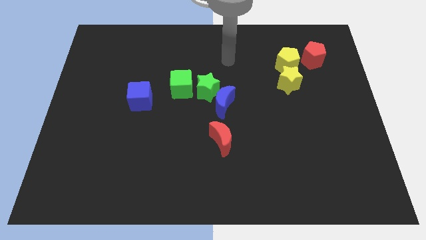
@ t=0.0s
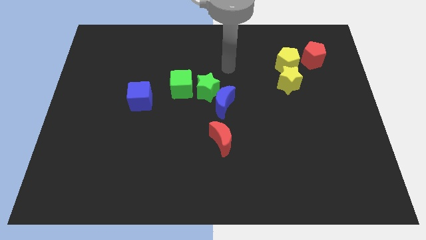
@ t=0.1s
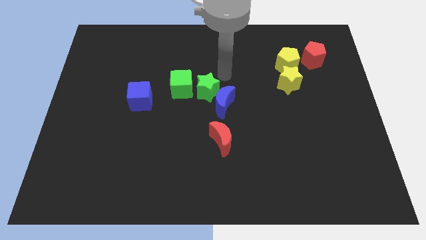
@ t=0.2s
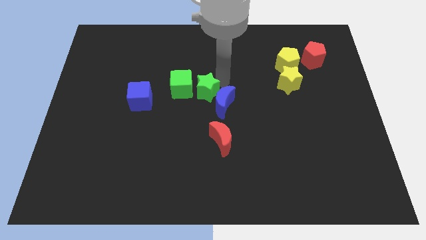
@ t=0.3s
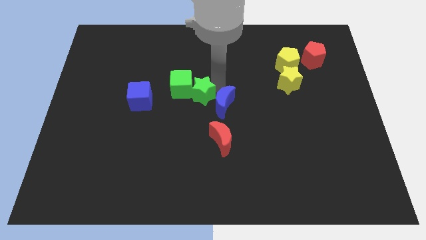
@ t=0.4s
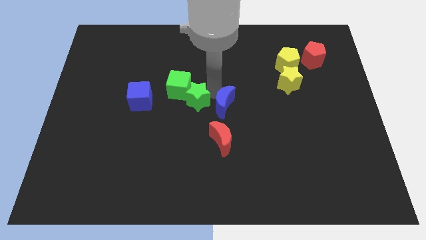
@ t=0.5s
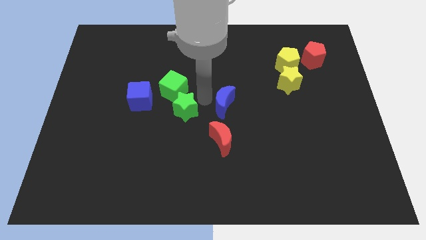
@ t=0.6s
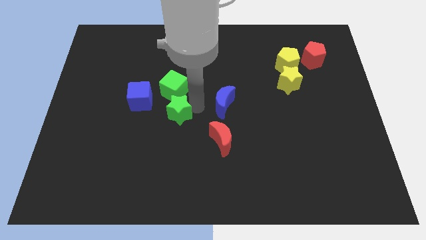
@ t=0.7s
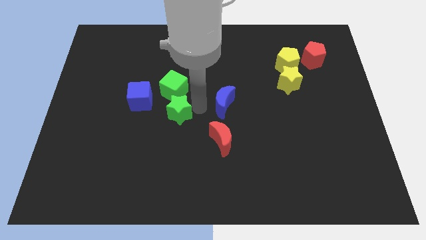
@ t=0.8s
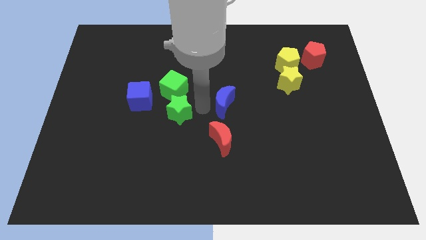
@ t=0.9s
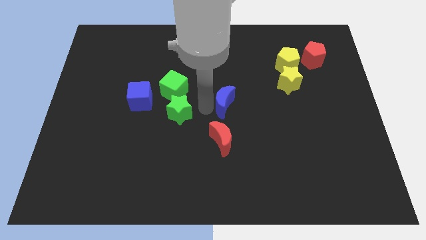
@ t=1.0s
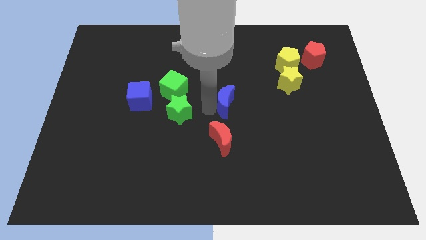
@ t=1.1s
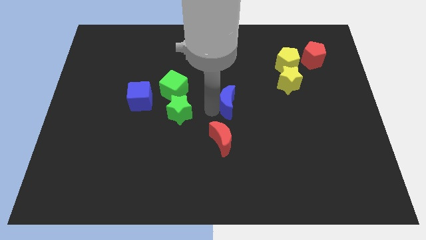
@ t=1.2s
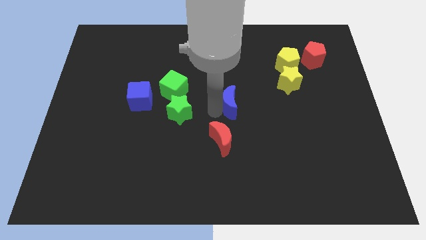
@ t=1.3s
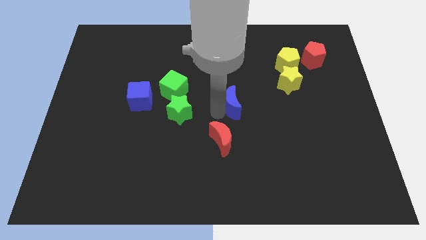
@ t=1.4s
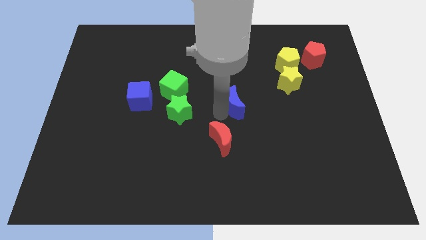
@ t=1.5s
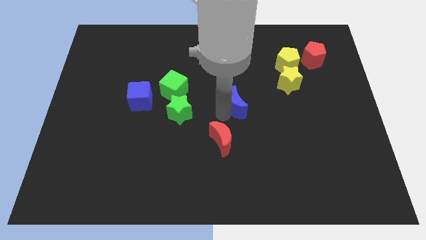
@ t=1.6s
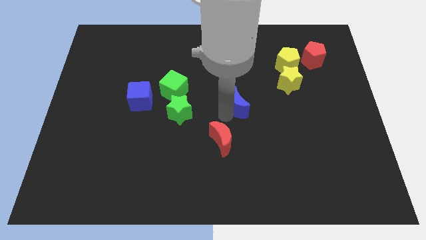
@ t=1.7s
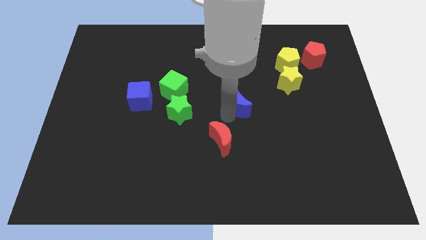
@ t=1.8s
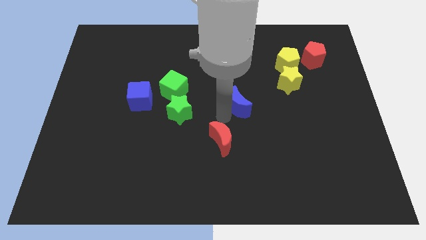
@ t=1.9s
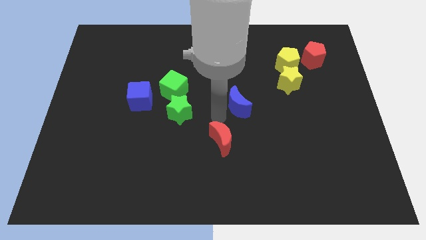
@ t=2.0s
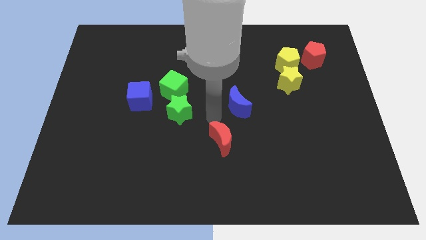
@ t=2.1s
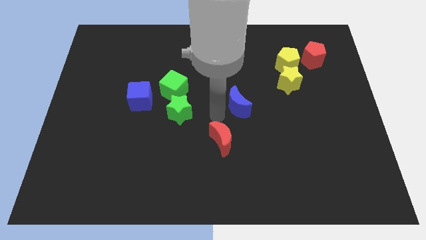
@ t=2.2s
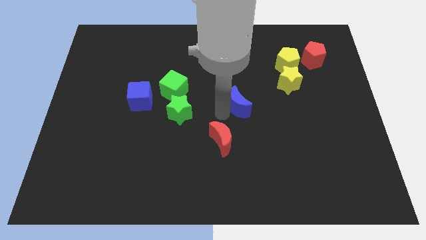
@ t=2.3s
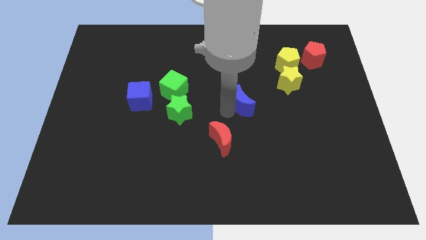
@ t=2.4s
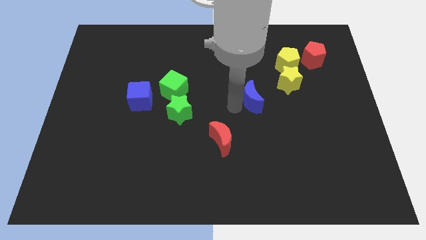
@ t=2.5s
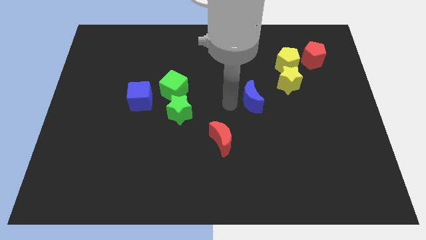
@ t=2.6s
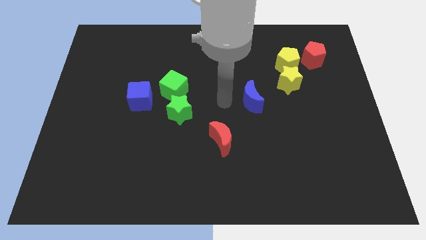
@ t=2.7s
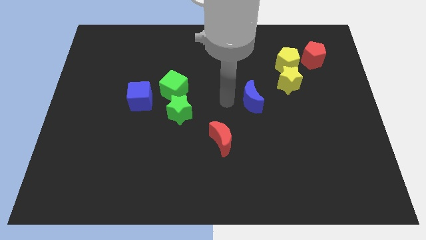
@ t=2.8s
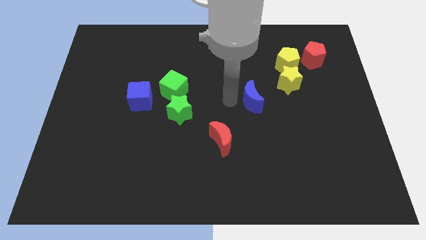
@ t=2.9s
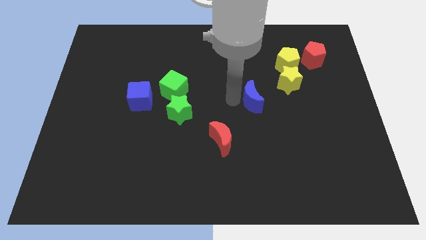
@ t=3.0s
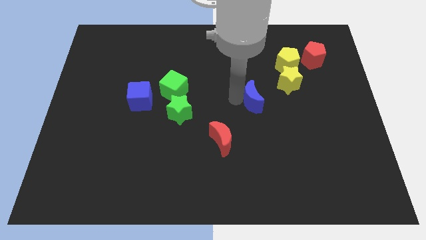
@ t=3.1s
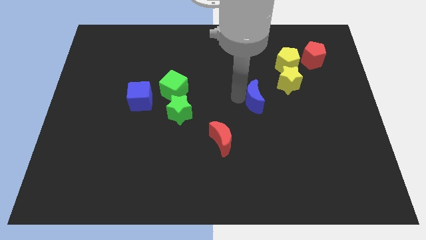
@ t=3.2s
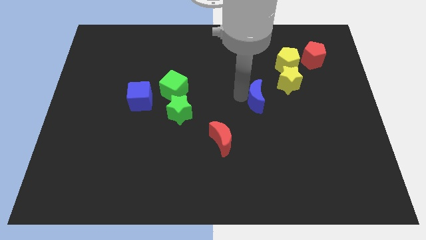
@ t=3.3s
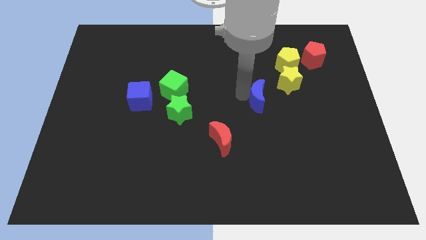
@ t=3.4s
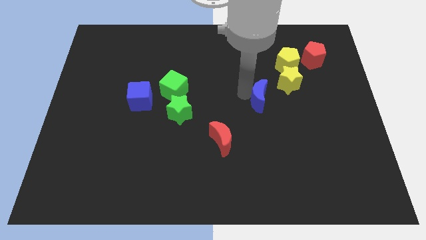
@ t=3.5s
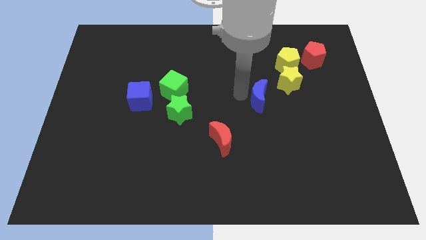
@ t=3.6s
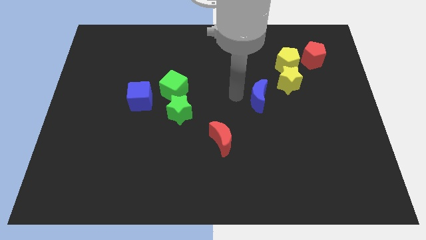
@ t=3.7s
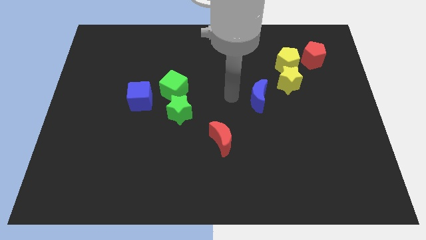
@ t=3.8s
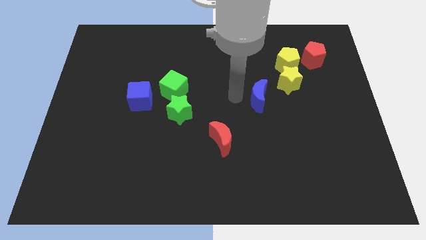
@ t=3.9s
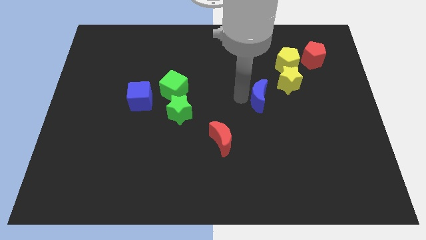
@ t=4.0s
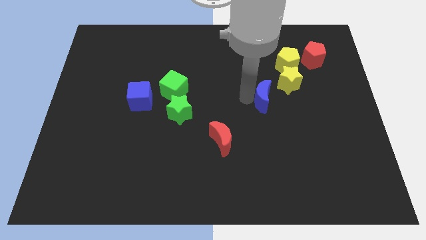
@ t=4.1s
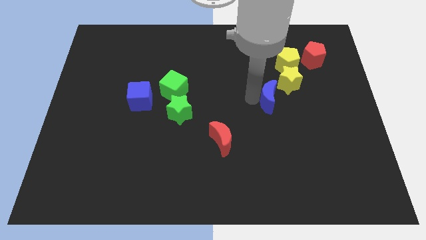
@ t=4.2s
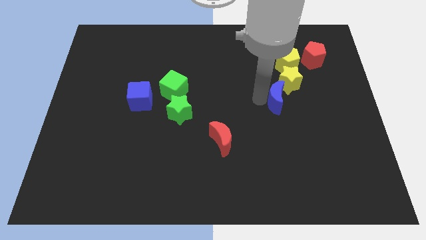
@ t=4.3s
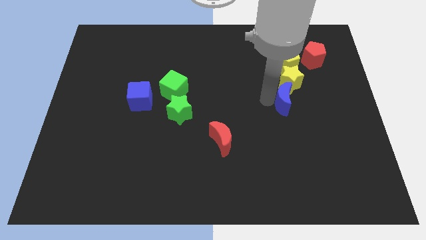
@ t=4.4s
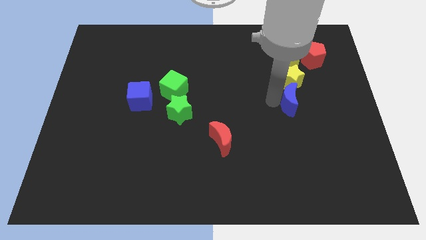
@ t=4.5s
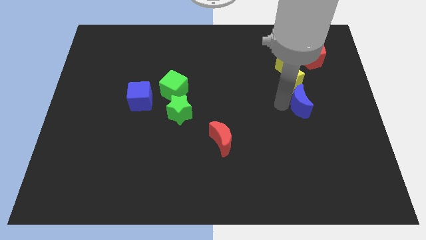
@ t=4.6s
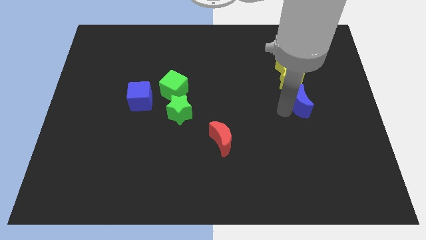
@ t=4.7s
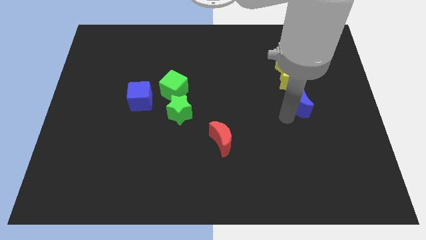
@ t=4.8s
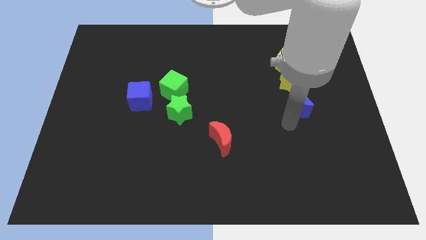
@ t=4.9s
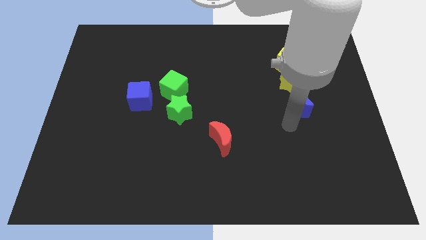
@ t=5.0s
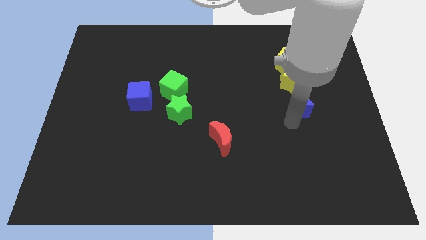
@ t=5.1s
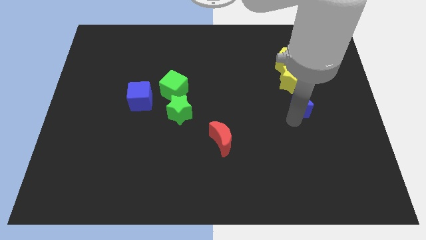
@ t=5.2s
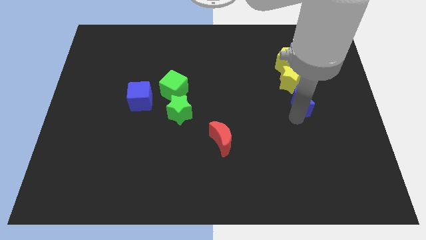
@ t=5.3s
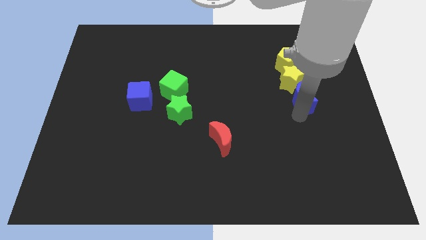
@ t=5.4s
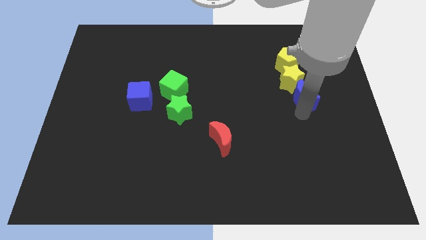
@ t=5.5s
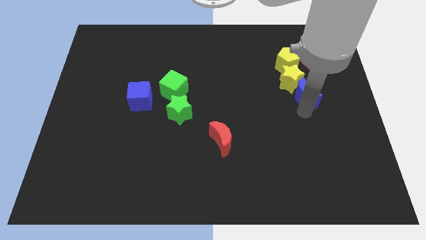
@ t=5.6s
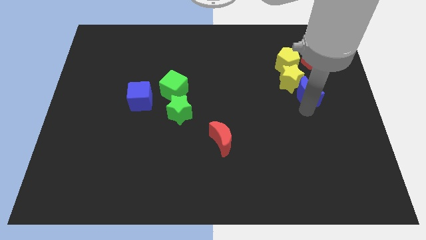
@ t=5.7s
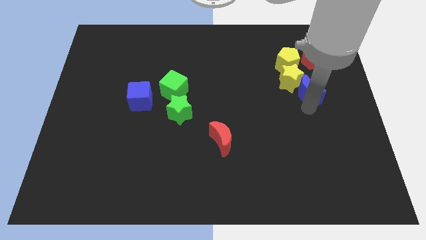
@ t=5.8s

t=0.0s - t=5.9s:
push the blue moon to the bottom right of the yellow pentagon

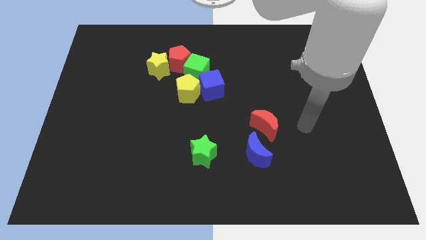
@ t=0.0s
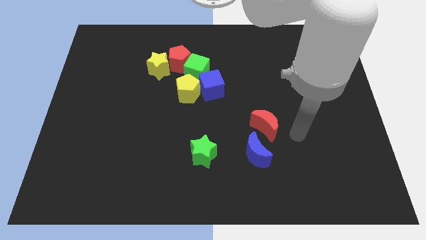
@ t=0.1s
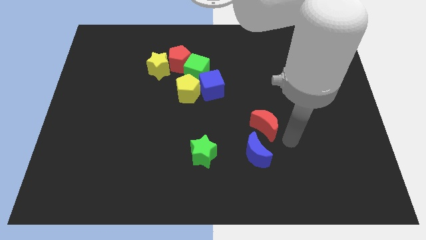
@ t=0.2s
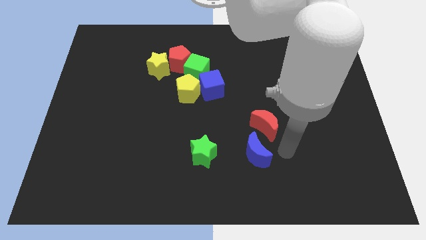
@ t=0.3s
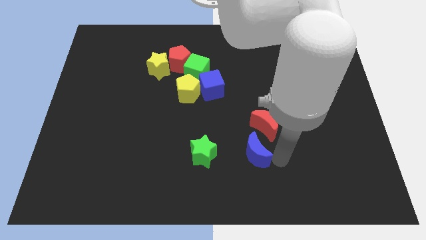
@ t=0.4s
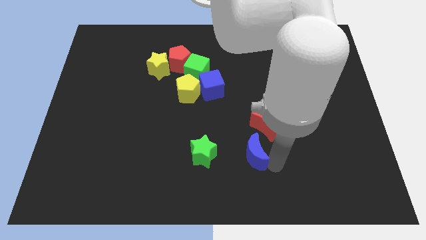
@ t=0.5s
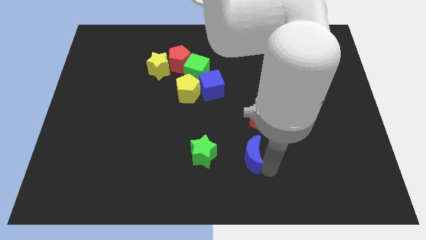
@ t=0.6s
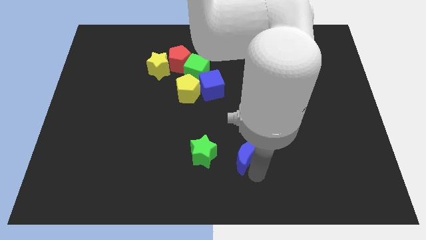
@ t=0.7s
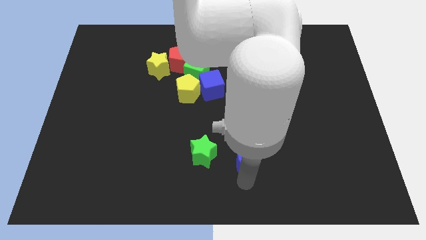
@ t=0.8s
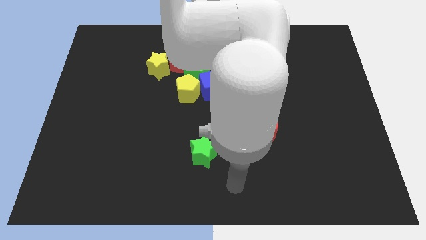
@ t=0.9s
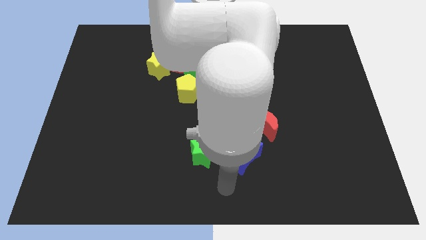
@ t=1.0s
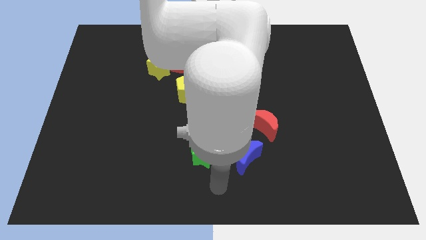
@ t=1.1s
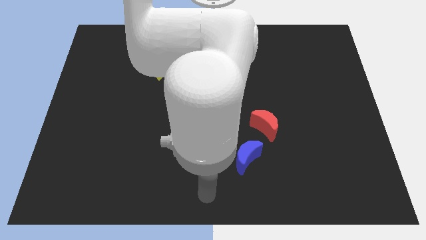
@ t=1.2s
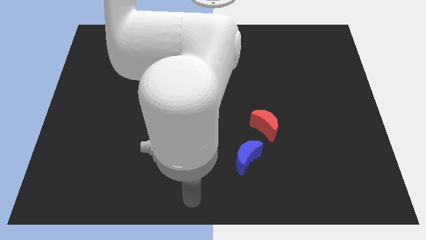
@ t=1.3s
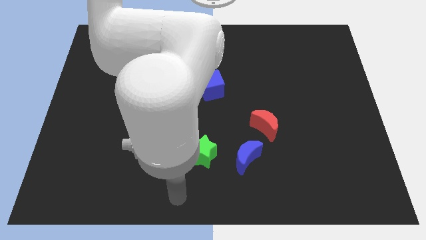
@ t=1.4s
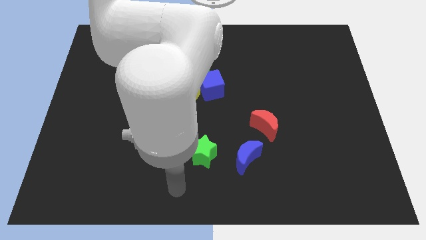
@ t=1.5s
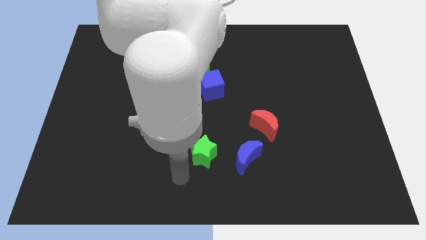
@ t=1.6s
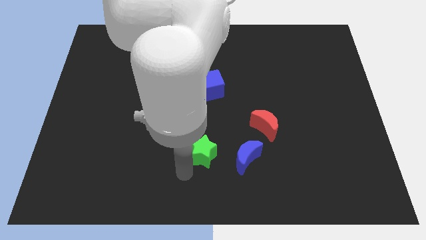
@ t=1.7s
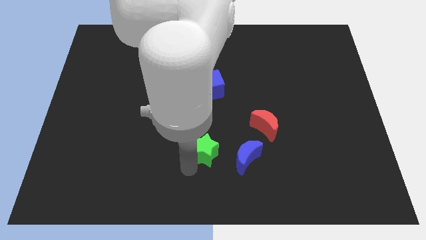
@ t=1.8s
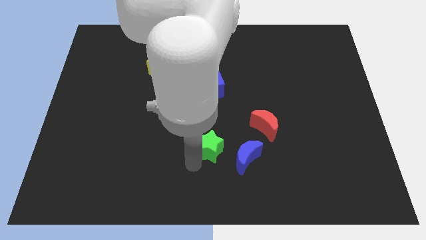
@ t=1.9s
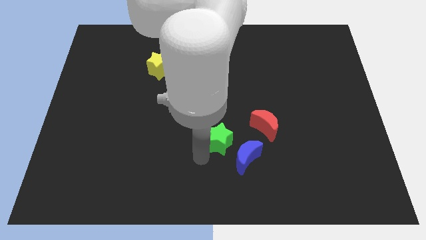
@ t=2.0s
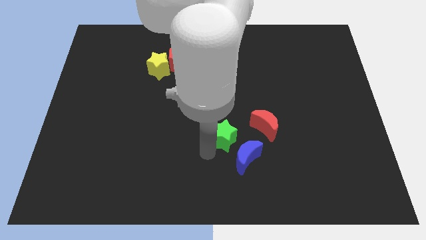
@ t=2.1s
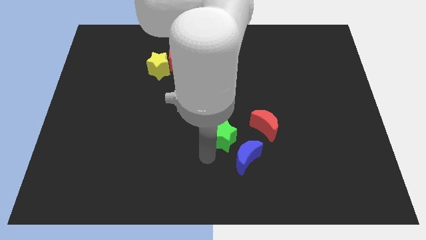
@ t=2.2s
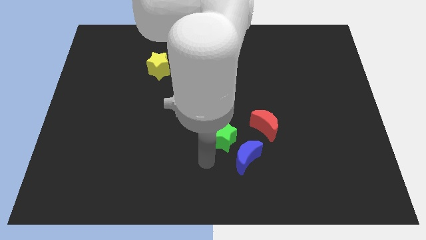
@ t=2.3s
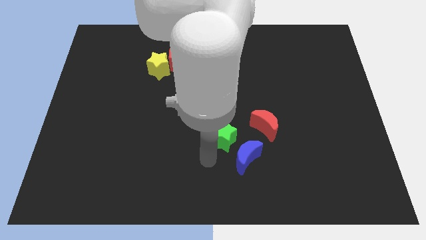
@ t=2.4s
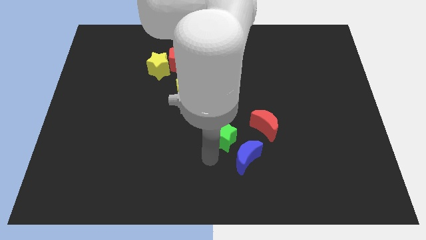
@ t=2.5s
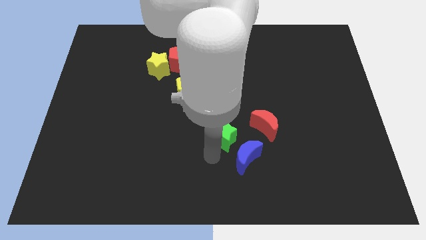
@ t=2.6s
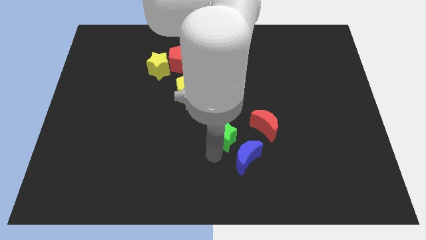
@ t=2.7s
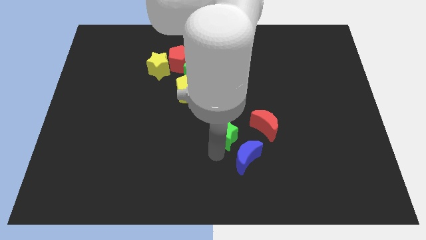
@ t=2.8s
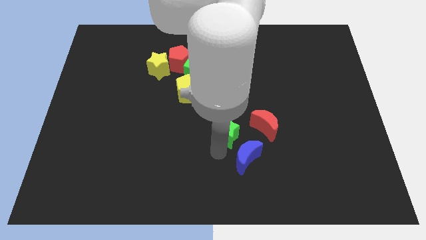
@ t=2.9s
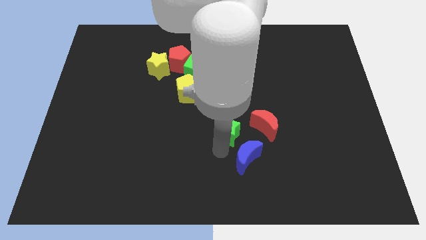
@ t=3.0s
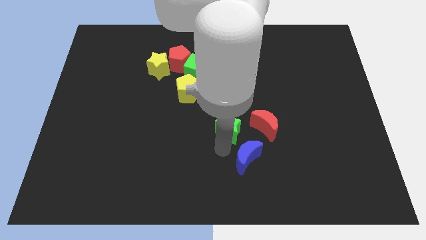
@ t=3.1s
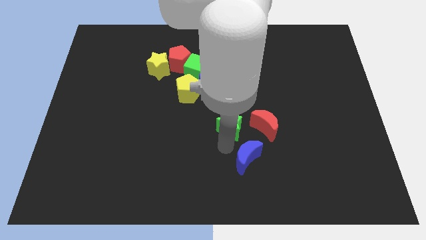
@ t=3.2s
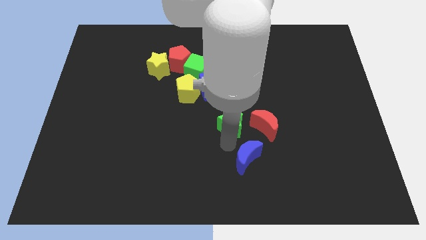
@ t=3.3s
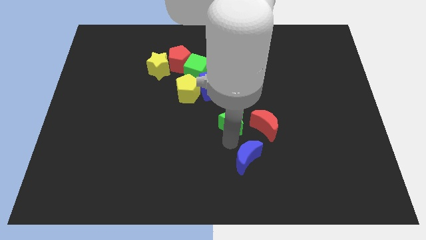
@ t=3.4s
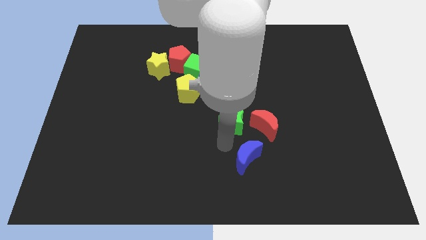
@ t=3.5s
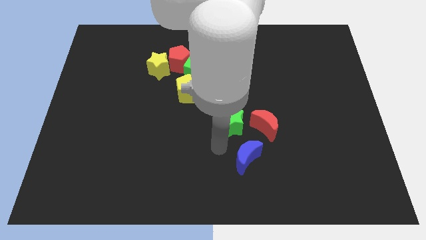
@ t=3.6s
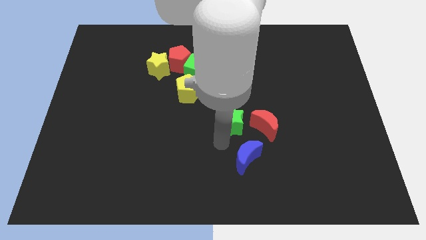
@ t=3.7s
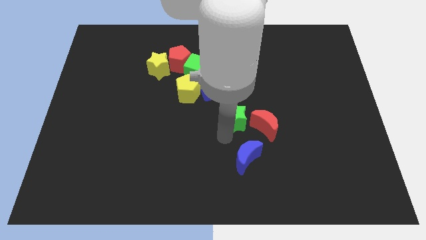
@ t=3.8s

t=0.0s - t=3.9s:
move the green star to the top left side of the red moon
